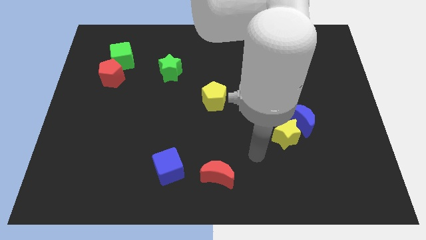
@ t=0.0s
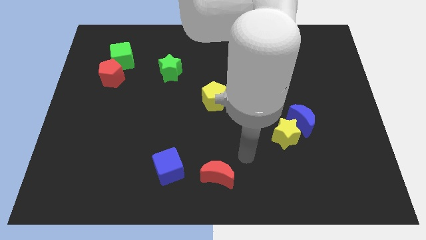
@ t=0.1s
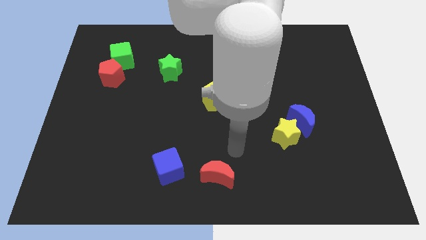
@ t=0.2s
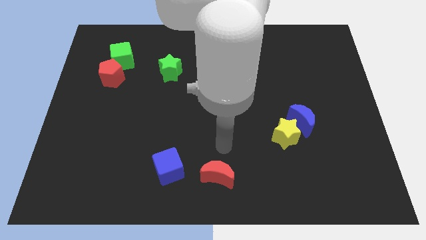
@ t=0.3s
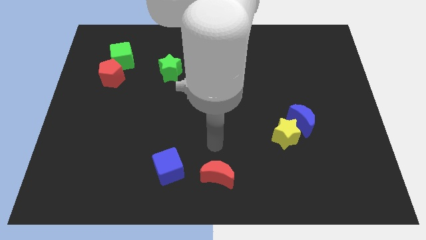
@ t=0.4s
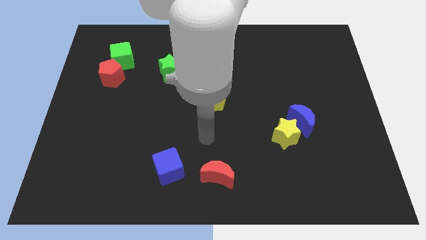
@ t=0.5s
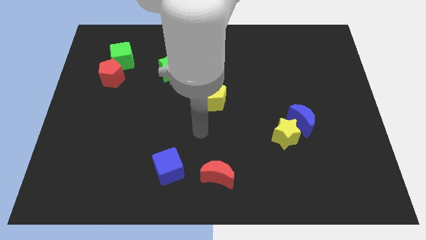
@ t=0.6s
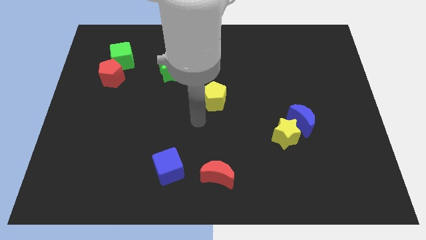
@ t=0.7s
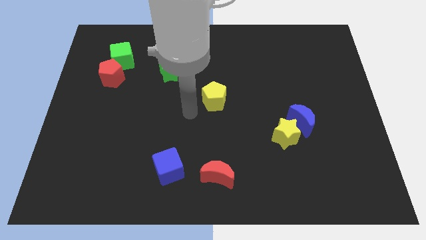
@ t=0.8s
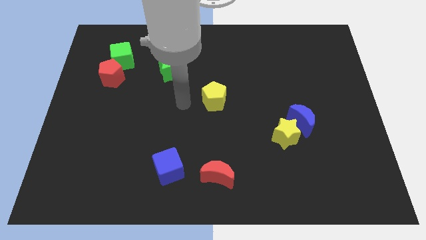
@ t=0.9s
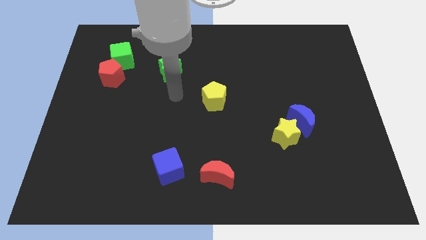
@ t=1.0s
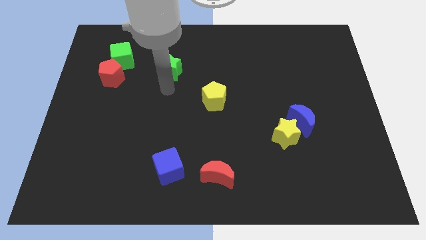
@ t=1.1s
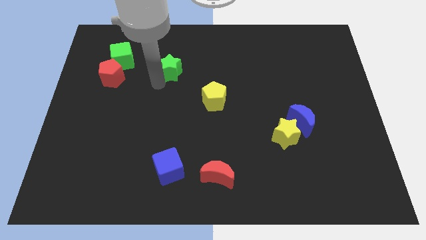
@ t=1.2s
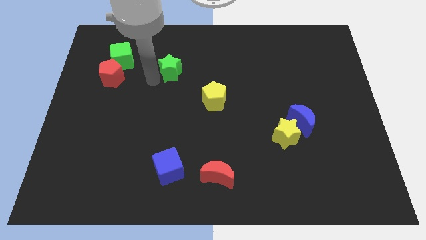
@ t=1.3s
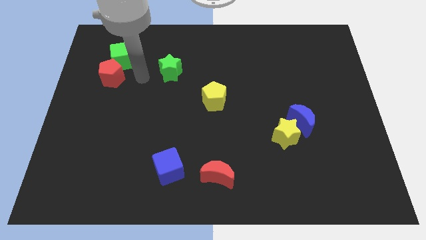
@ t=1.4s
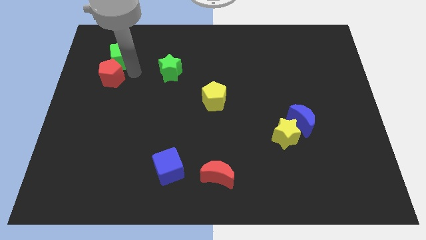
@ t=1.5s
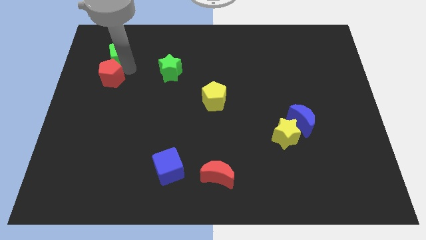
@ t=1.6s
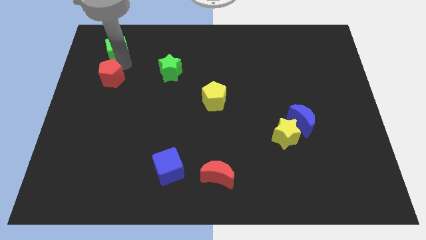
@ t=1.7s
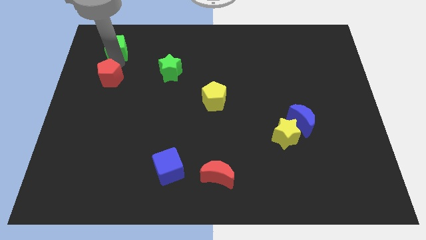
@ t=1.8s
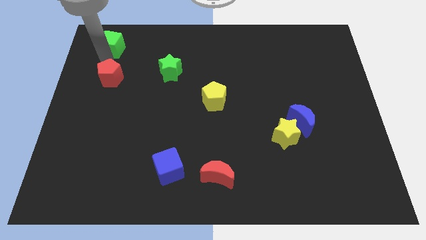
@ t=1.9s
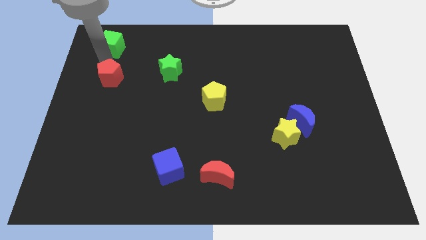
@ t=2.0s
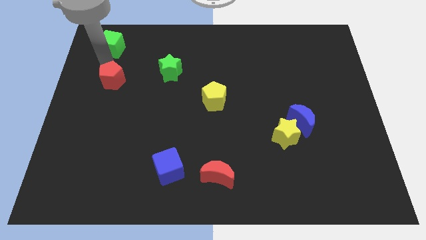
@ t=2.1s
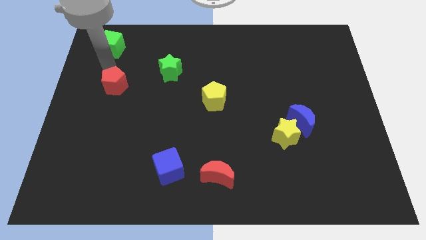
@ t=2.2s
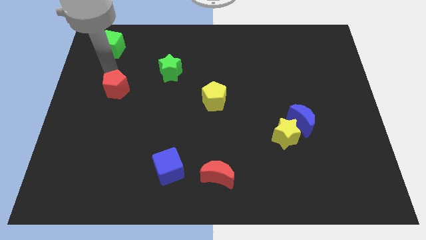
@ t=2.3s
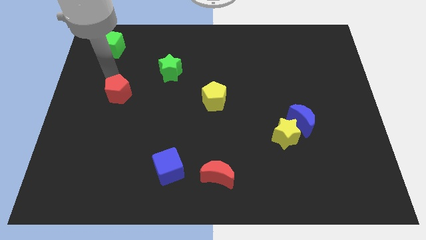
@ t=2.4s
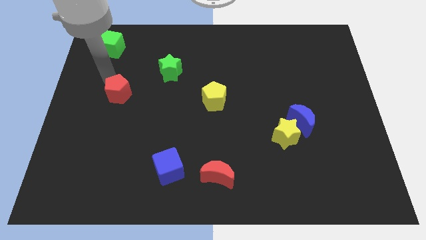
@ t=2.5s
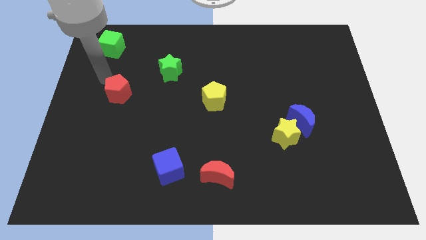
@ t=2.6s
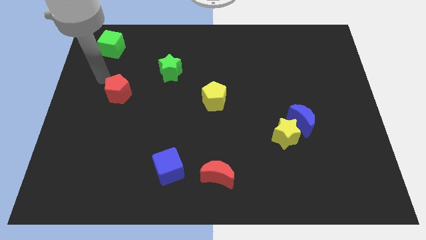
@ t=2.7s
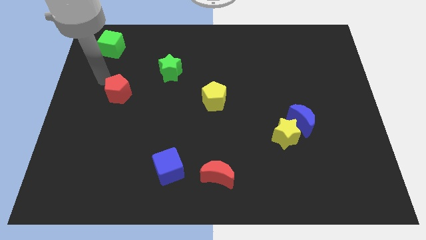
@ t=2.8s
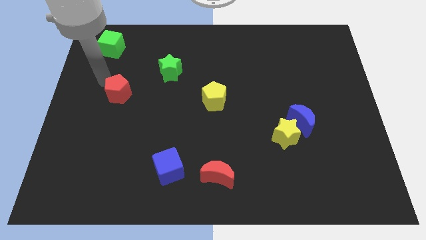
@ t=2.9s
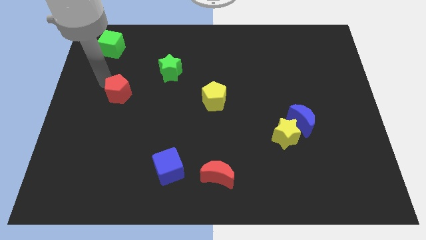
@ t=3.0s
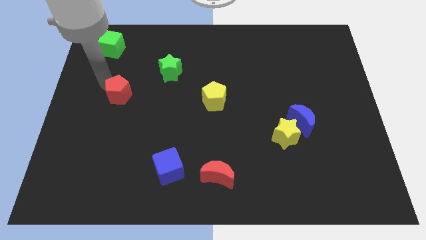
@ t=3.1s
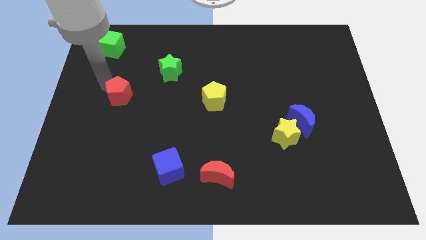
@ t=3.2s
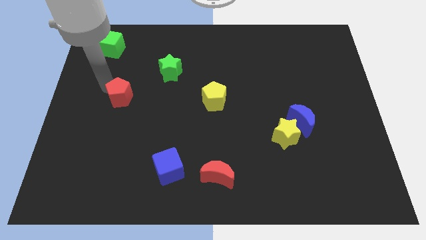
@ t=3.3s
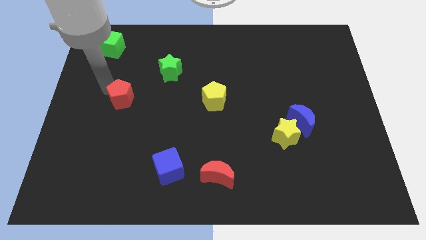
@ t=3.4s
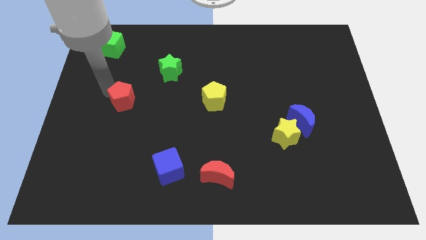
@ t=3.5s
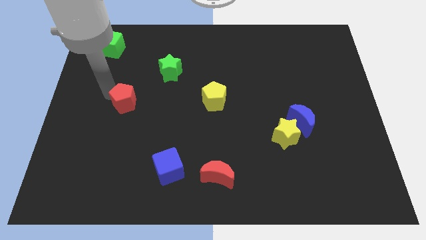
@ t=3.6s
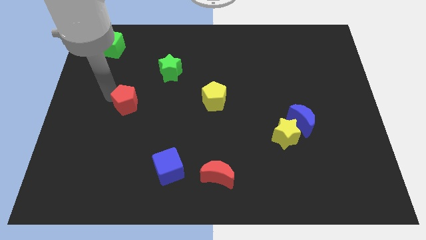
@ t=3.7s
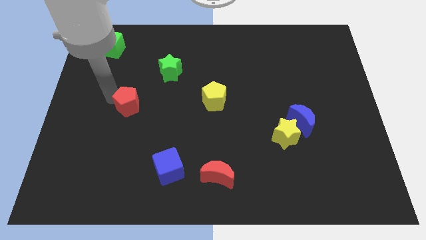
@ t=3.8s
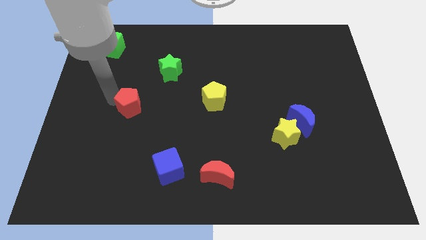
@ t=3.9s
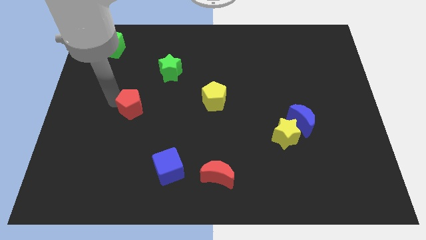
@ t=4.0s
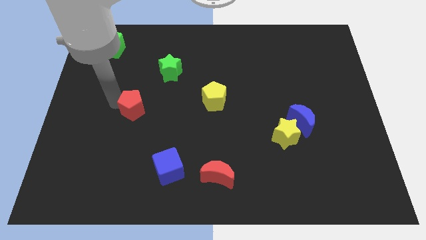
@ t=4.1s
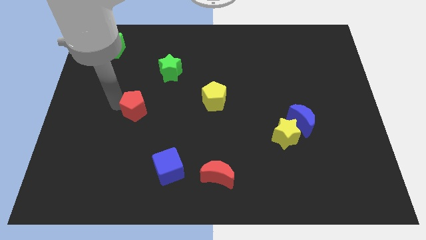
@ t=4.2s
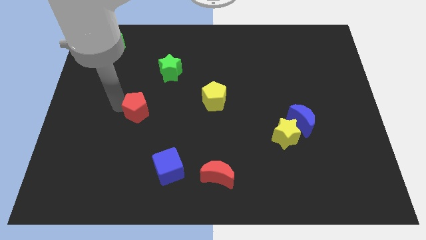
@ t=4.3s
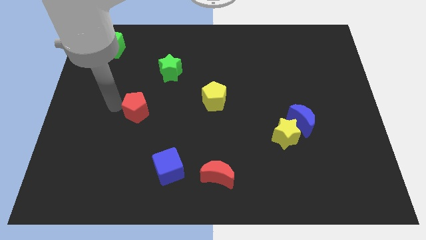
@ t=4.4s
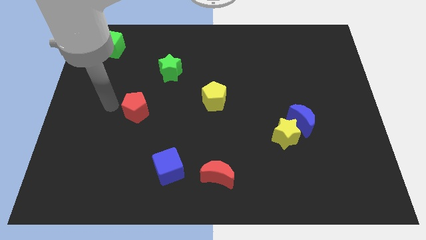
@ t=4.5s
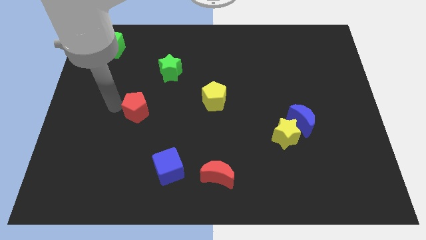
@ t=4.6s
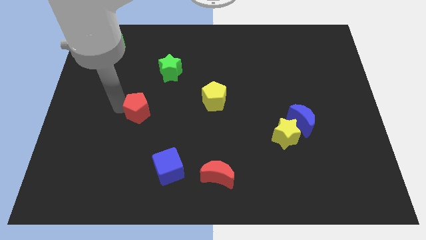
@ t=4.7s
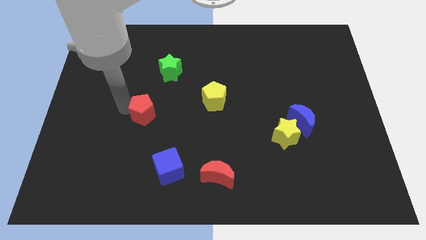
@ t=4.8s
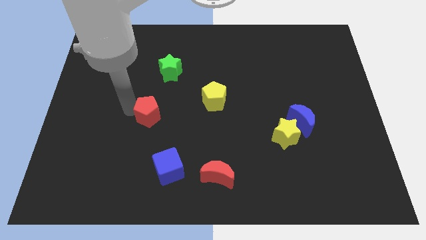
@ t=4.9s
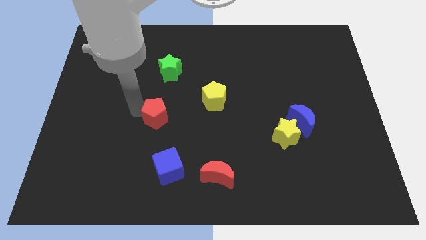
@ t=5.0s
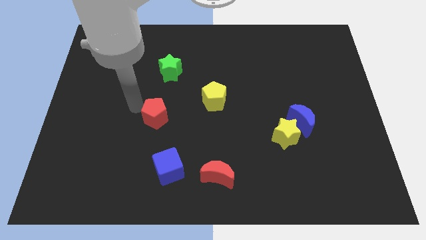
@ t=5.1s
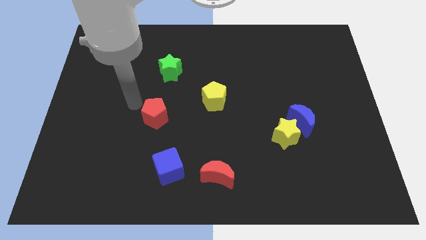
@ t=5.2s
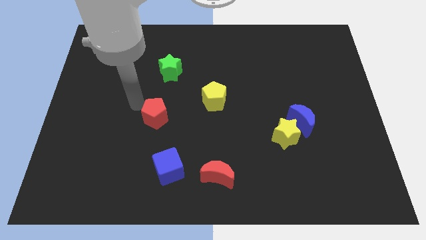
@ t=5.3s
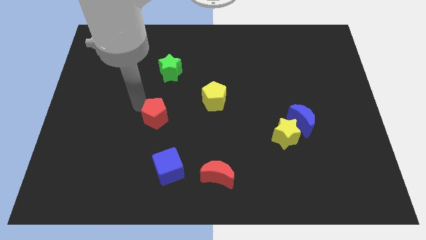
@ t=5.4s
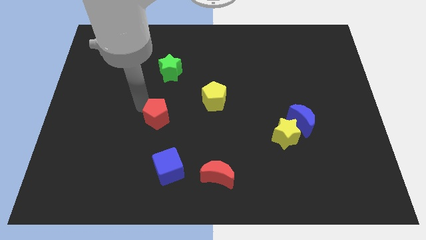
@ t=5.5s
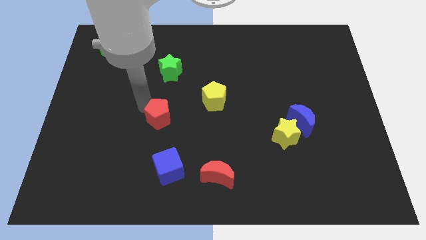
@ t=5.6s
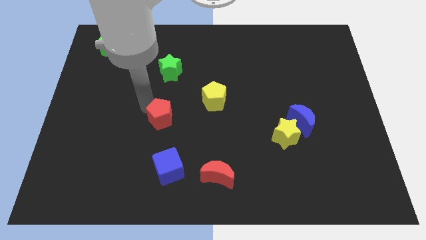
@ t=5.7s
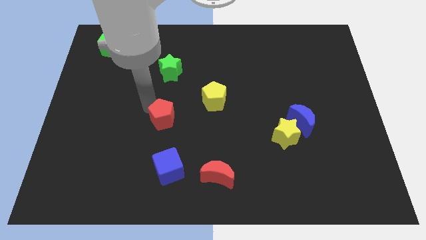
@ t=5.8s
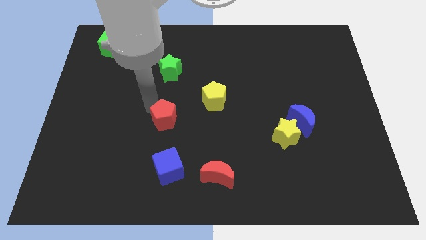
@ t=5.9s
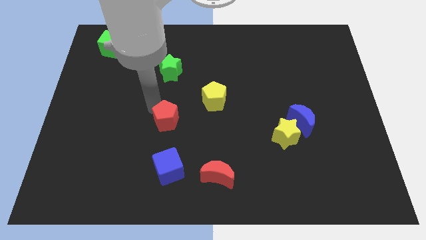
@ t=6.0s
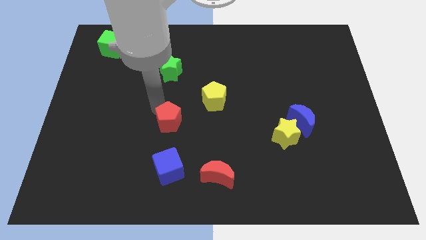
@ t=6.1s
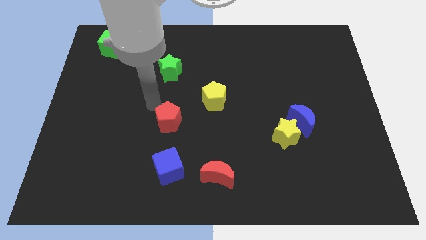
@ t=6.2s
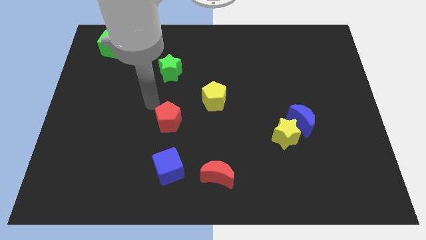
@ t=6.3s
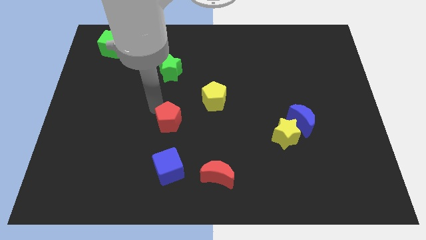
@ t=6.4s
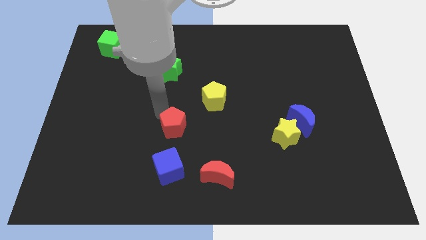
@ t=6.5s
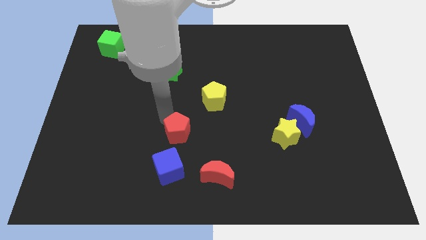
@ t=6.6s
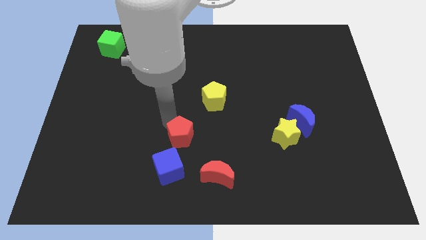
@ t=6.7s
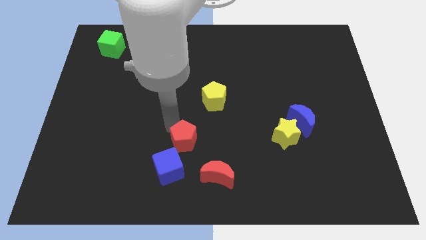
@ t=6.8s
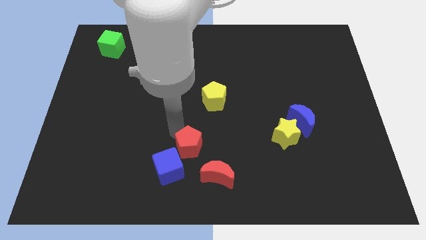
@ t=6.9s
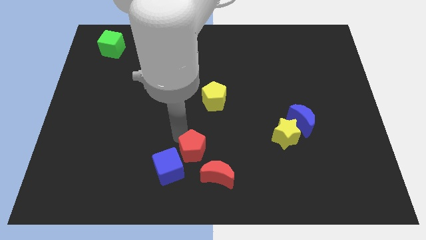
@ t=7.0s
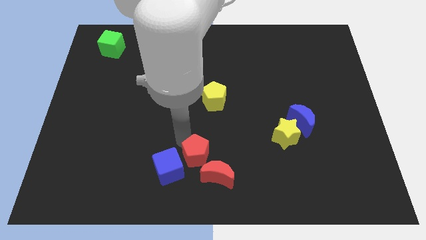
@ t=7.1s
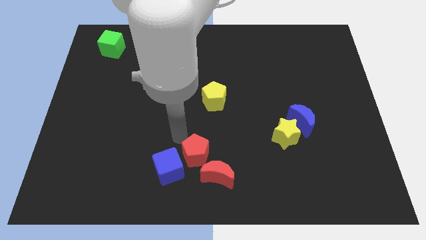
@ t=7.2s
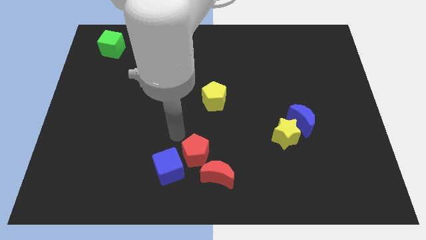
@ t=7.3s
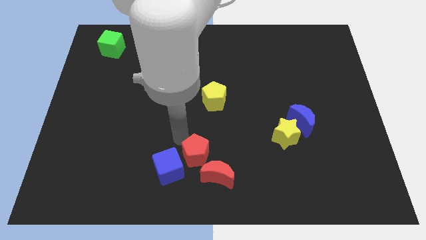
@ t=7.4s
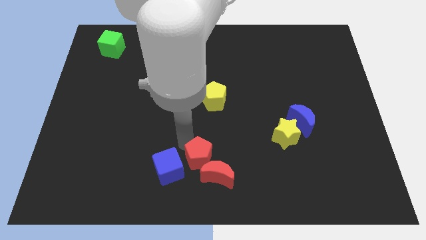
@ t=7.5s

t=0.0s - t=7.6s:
put the red pentagon close to the red moon
